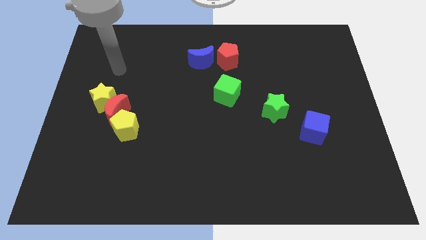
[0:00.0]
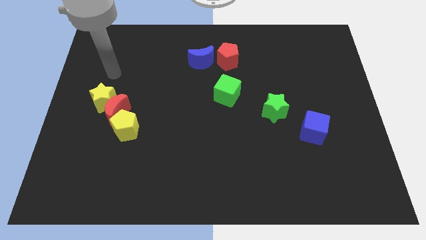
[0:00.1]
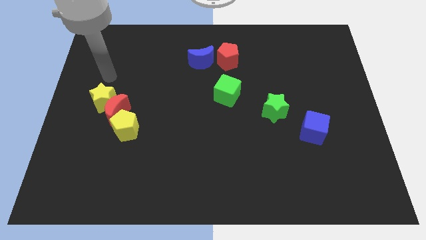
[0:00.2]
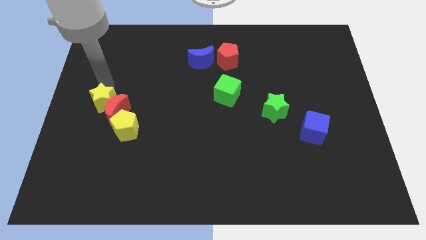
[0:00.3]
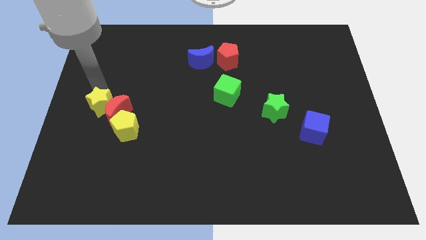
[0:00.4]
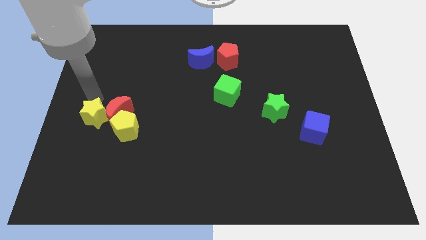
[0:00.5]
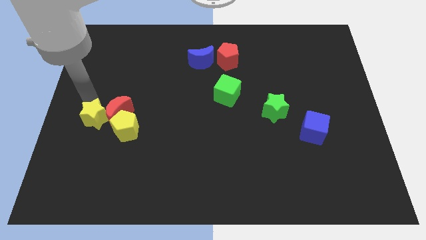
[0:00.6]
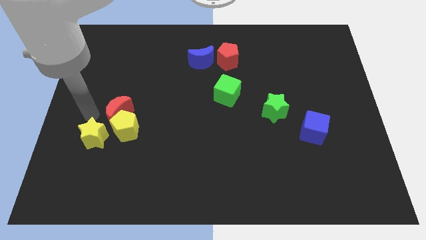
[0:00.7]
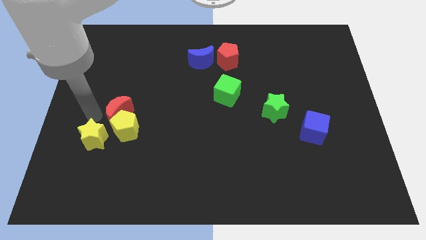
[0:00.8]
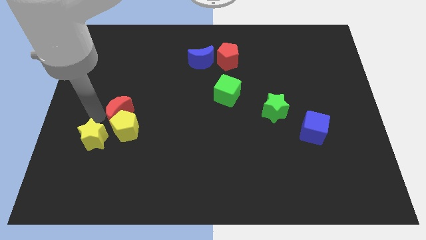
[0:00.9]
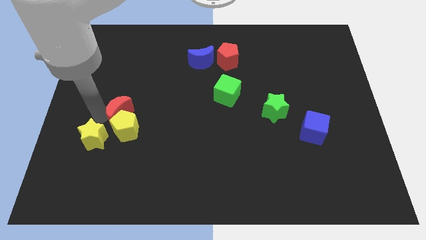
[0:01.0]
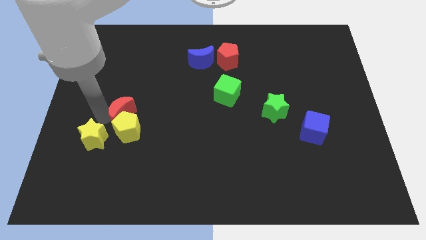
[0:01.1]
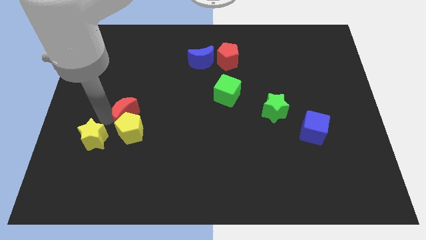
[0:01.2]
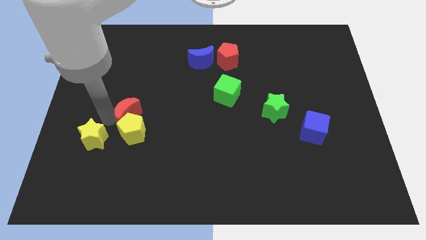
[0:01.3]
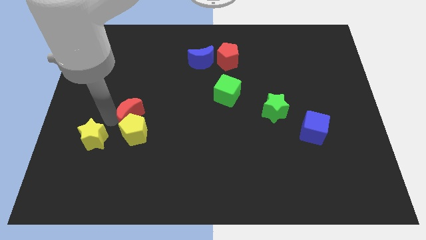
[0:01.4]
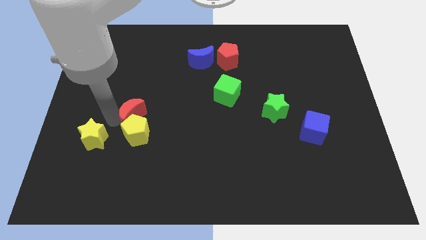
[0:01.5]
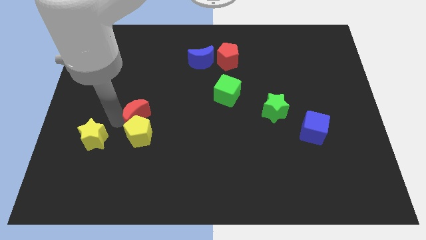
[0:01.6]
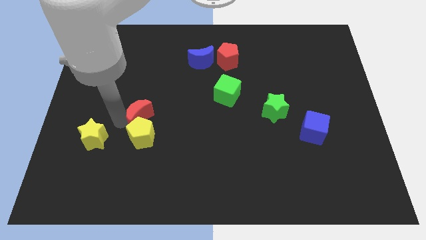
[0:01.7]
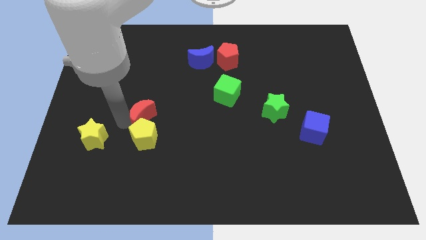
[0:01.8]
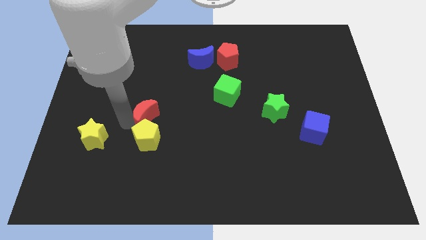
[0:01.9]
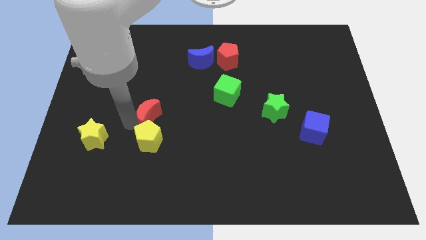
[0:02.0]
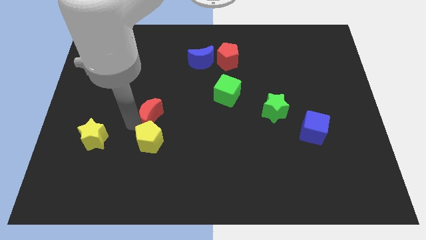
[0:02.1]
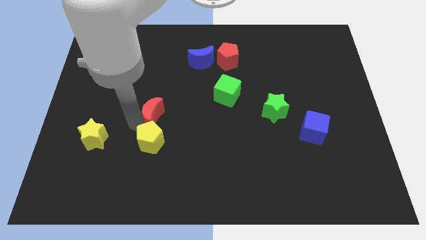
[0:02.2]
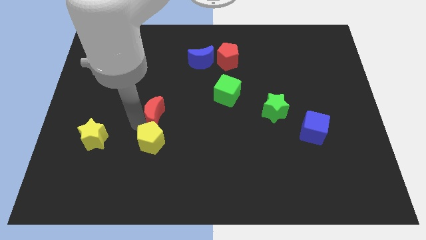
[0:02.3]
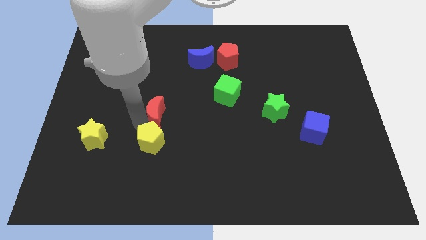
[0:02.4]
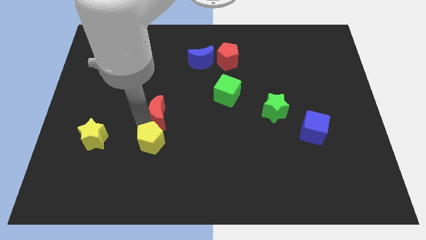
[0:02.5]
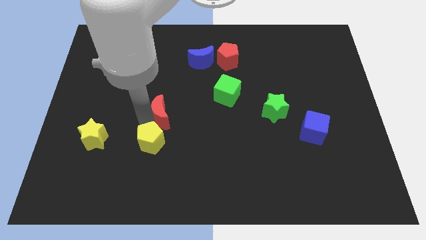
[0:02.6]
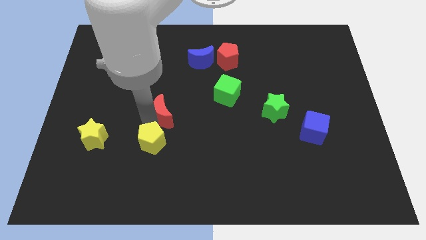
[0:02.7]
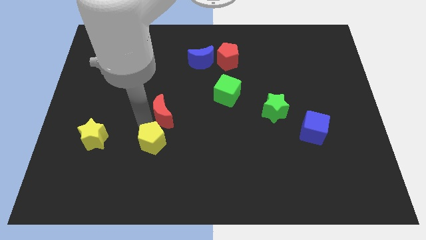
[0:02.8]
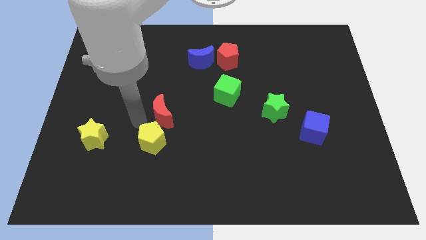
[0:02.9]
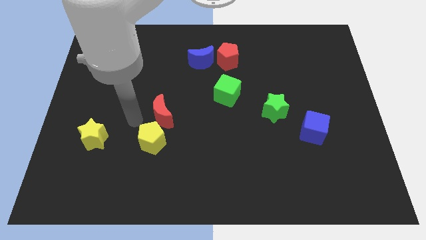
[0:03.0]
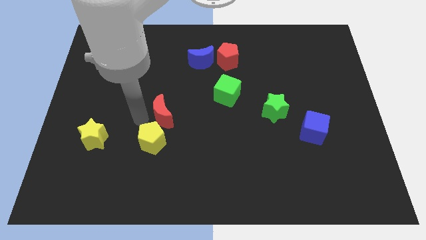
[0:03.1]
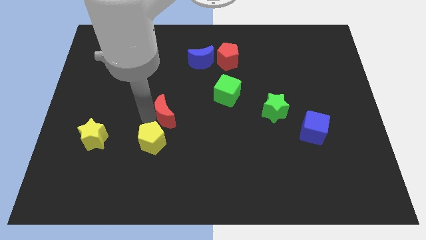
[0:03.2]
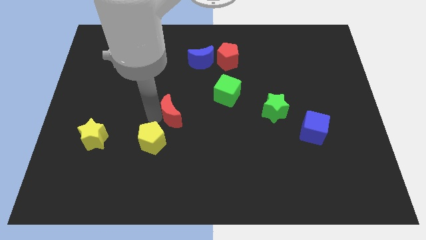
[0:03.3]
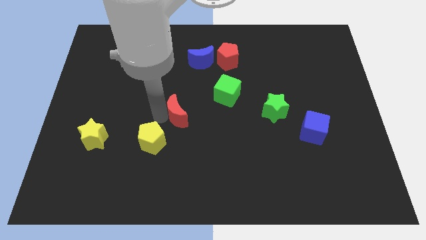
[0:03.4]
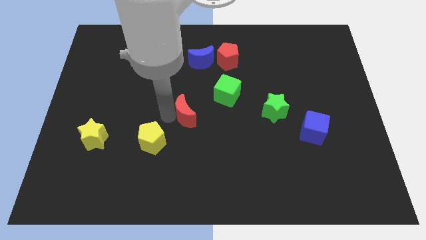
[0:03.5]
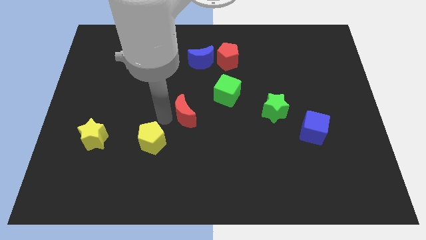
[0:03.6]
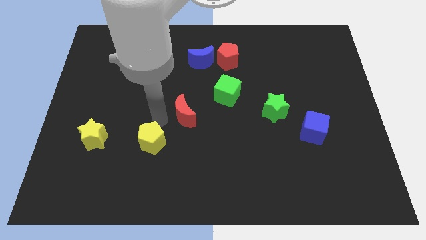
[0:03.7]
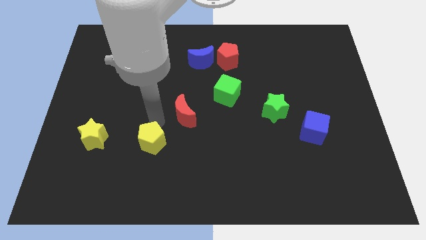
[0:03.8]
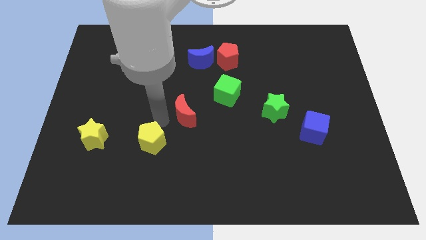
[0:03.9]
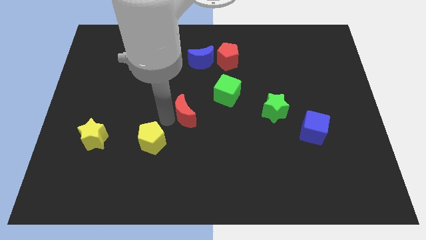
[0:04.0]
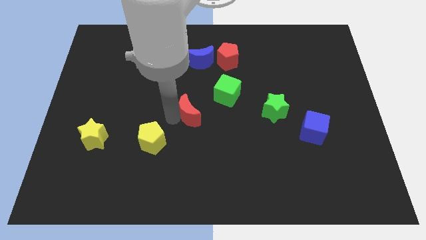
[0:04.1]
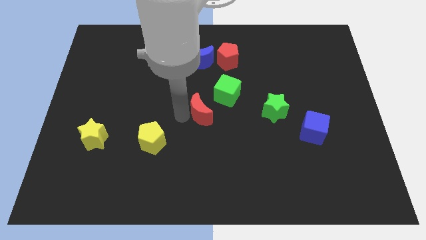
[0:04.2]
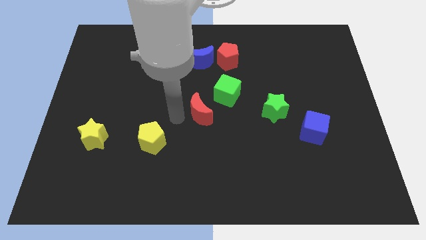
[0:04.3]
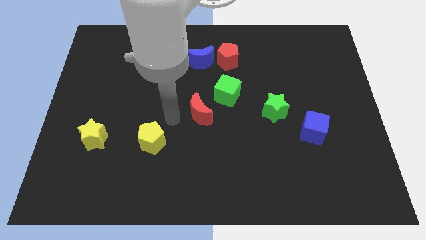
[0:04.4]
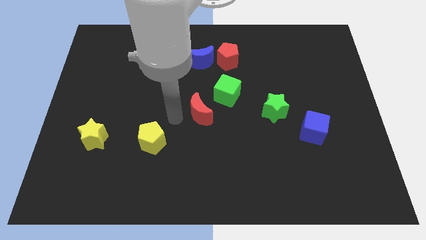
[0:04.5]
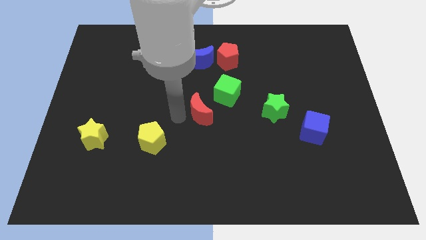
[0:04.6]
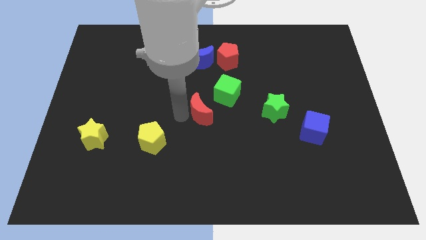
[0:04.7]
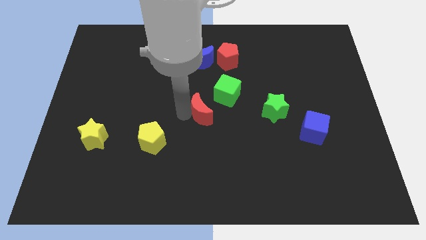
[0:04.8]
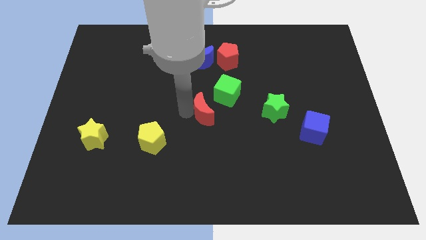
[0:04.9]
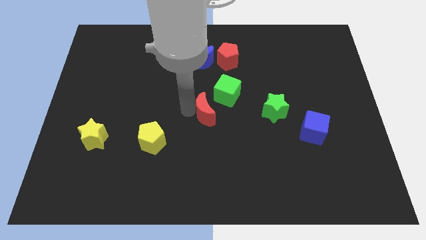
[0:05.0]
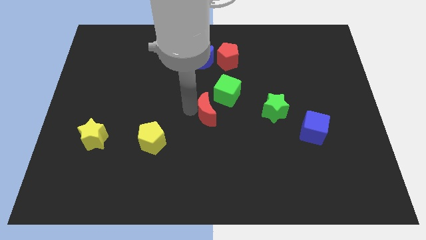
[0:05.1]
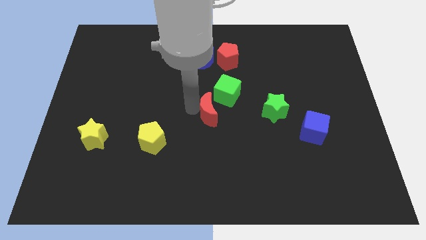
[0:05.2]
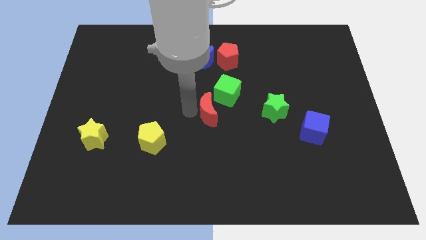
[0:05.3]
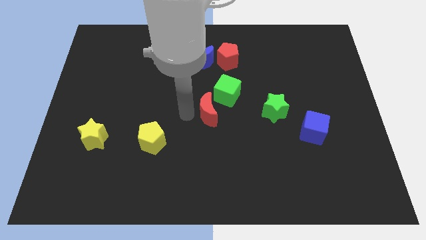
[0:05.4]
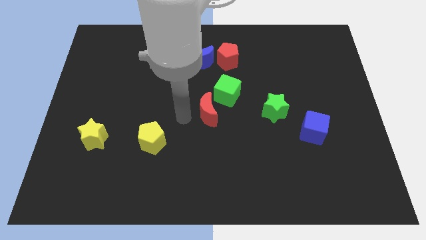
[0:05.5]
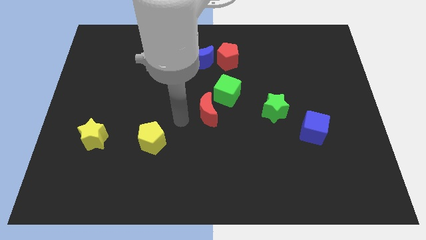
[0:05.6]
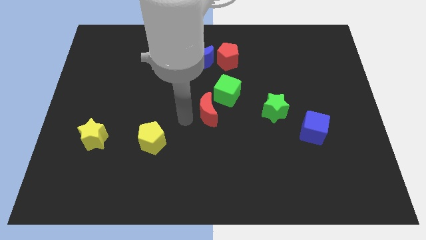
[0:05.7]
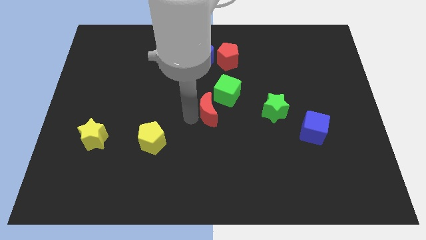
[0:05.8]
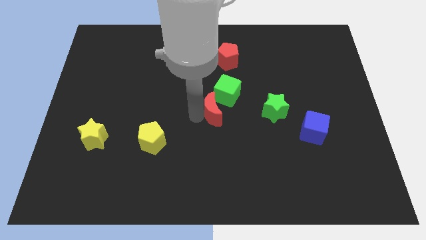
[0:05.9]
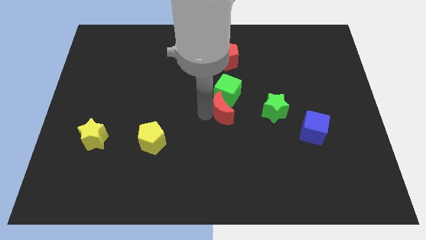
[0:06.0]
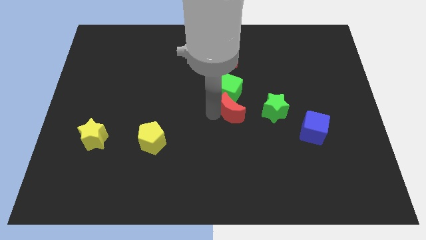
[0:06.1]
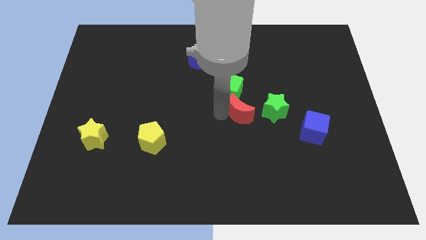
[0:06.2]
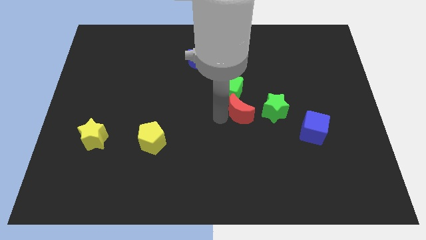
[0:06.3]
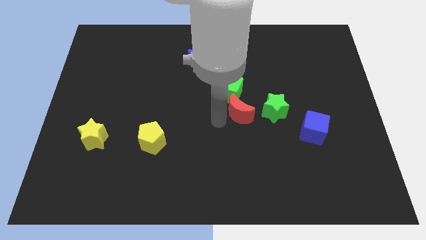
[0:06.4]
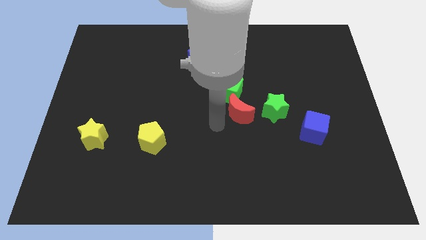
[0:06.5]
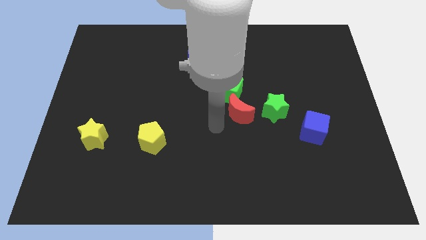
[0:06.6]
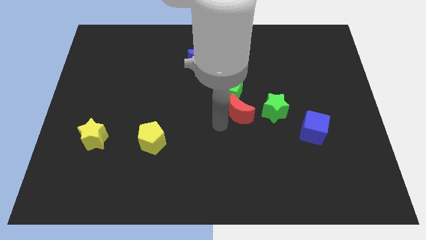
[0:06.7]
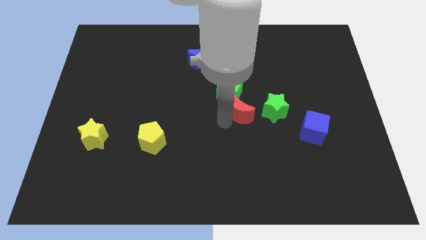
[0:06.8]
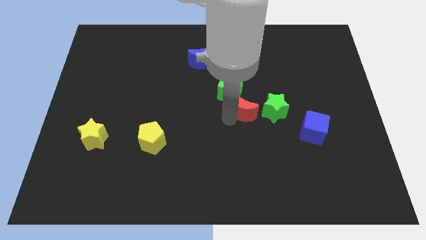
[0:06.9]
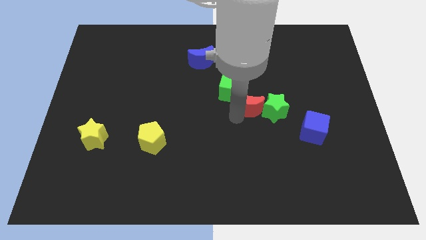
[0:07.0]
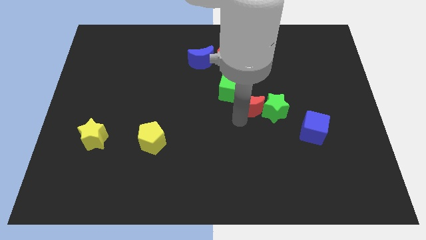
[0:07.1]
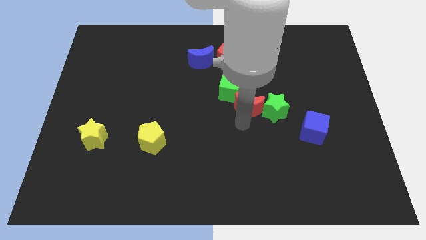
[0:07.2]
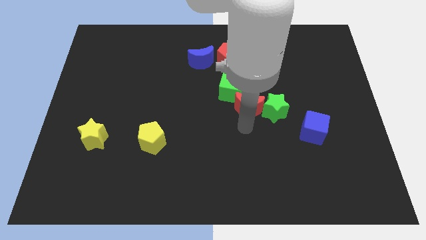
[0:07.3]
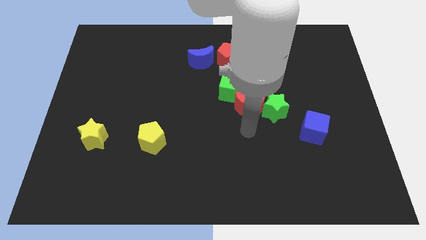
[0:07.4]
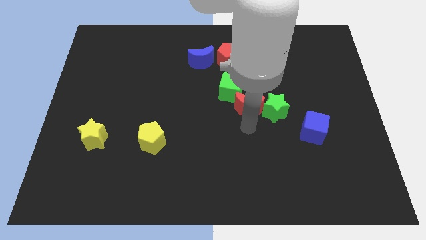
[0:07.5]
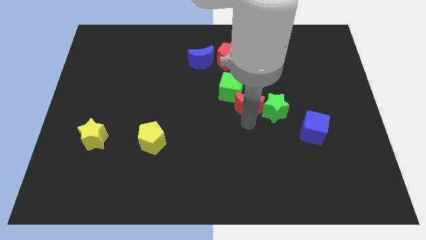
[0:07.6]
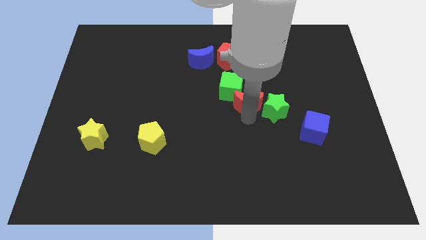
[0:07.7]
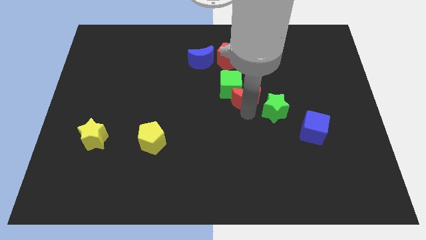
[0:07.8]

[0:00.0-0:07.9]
put the red moon to the bottom side of the red pentagon
